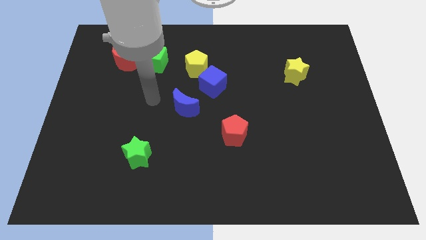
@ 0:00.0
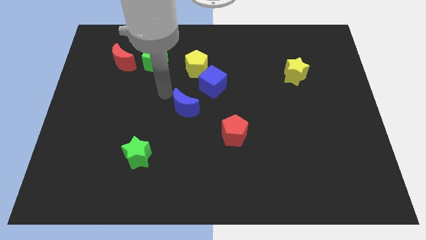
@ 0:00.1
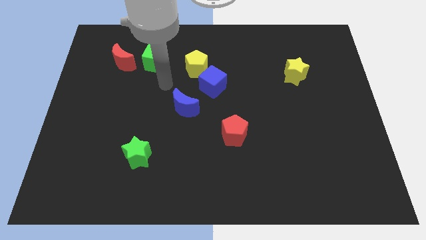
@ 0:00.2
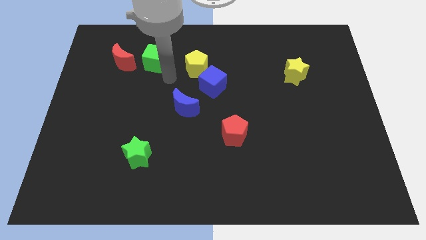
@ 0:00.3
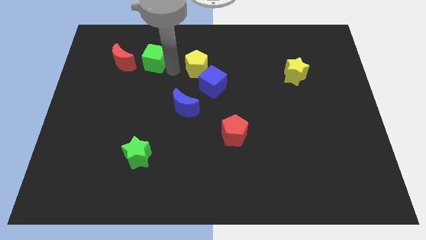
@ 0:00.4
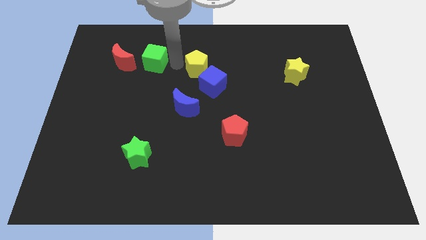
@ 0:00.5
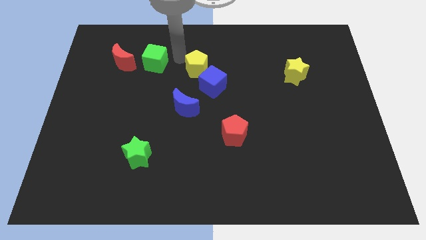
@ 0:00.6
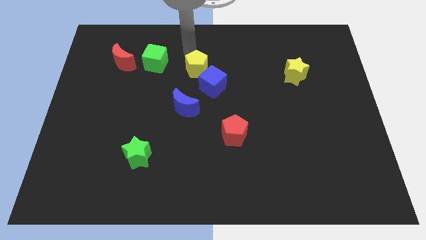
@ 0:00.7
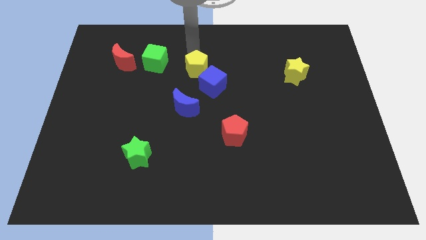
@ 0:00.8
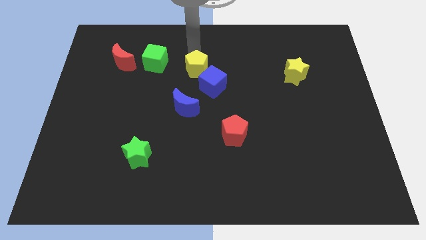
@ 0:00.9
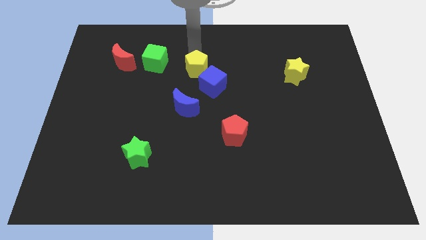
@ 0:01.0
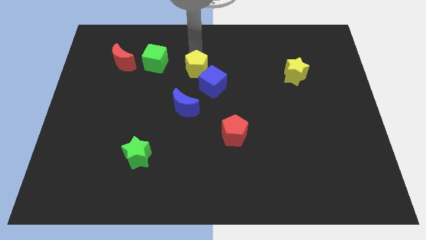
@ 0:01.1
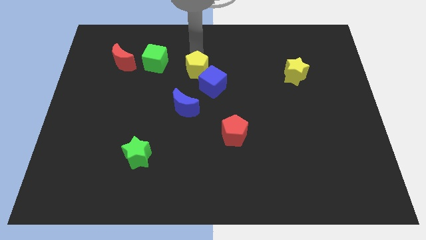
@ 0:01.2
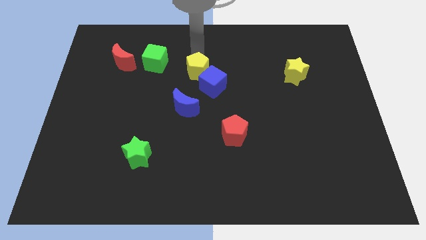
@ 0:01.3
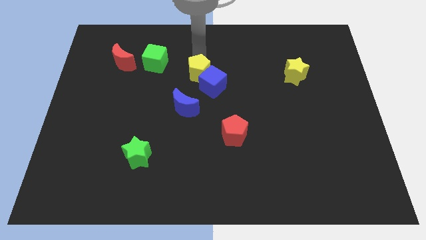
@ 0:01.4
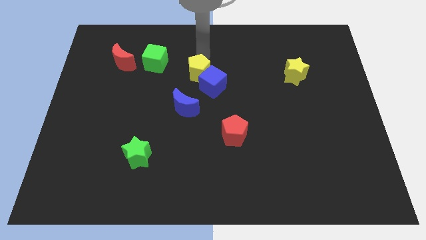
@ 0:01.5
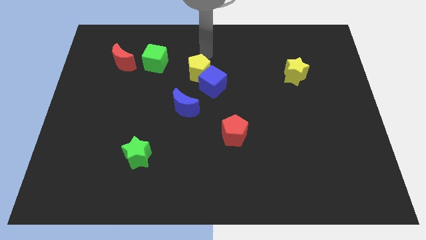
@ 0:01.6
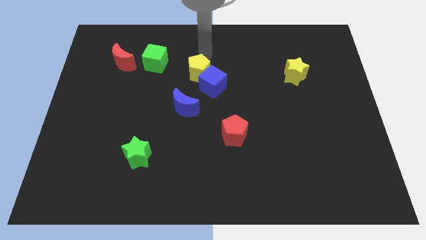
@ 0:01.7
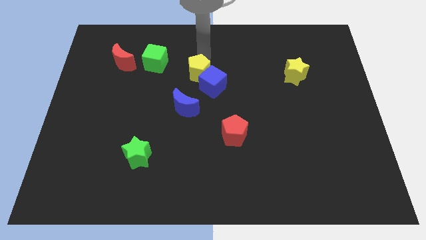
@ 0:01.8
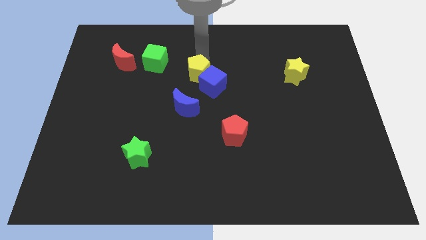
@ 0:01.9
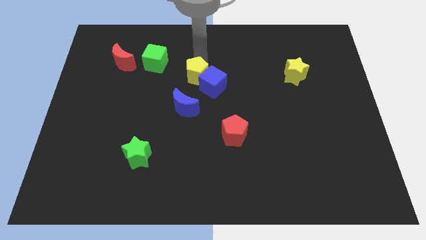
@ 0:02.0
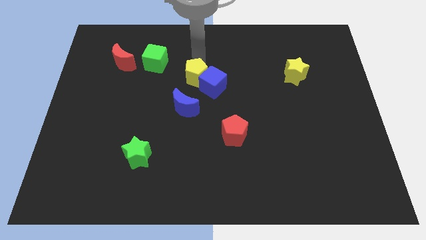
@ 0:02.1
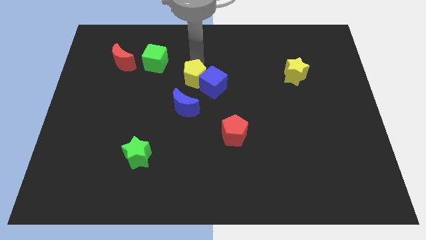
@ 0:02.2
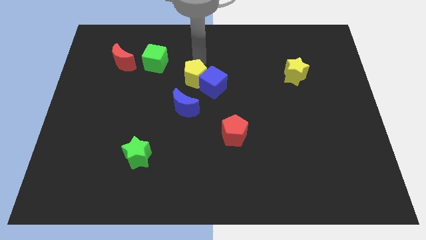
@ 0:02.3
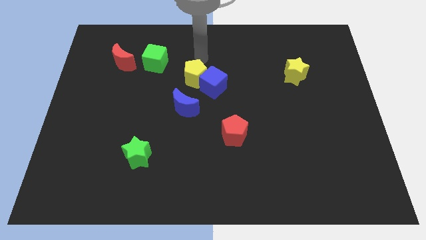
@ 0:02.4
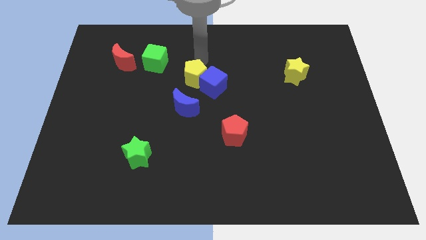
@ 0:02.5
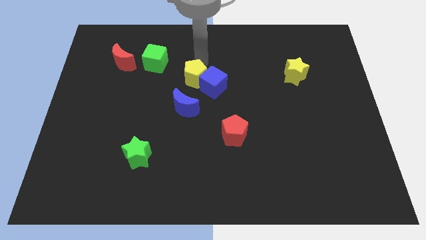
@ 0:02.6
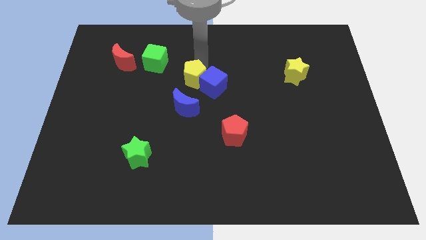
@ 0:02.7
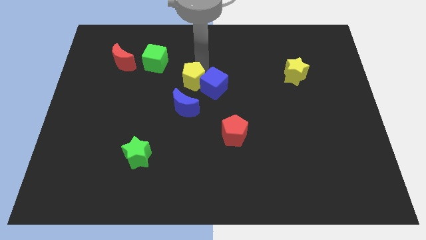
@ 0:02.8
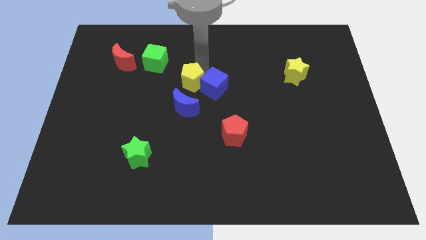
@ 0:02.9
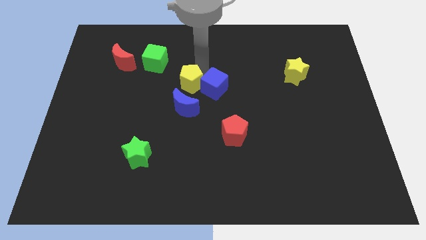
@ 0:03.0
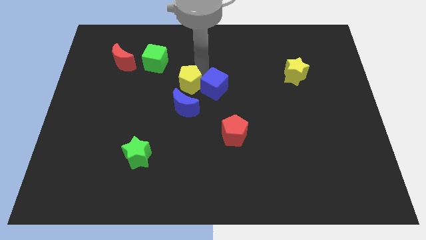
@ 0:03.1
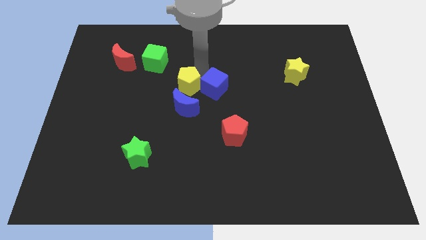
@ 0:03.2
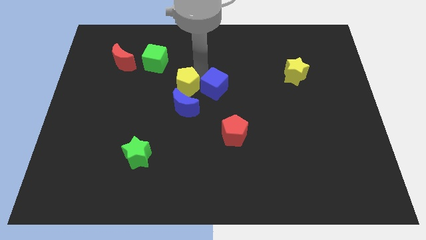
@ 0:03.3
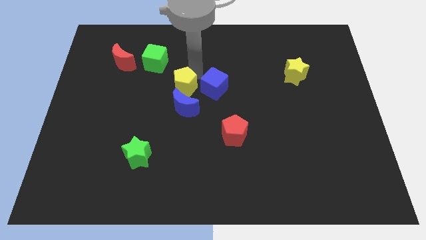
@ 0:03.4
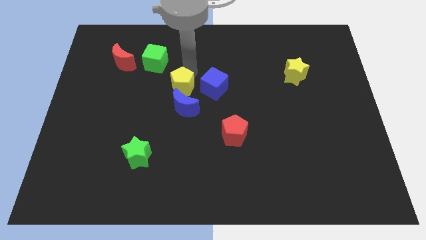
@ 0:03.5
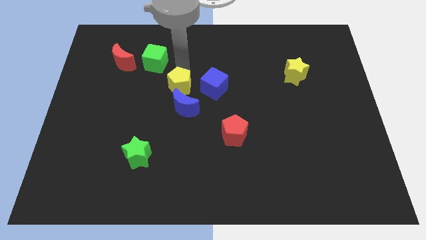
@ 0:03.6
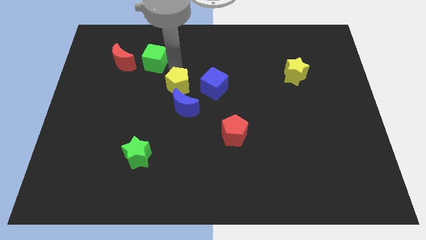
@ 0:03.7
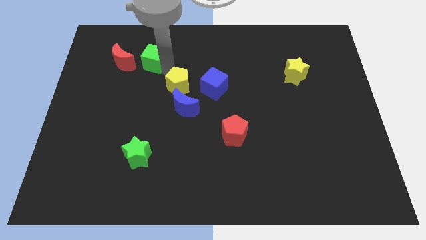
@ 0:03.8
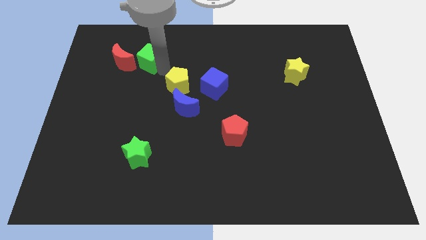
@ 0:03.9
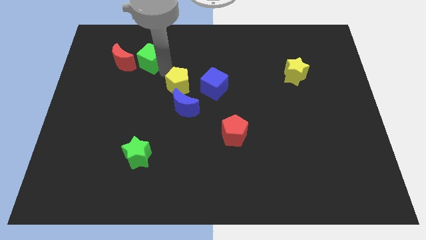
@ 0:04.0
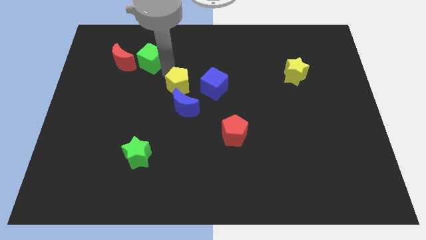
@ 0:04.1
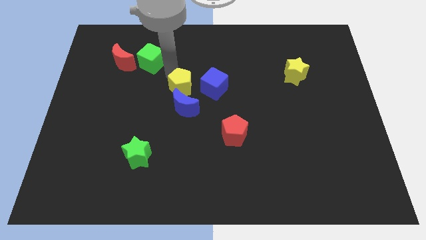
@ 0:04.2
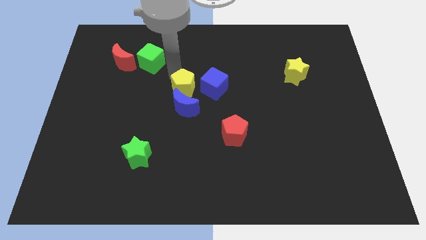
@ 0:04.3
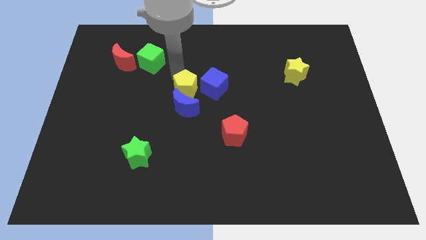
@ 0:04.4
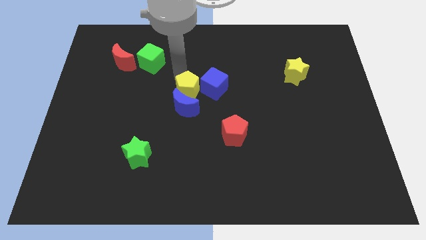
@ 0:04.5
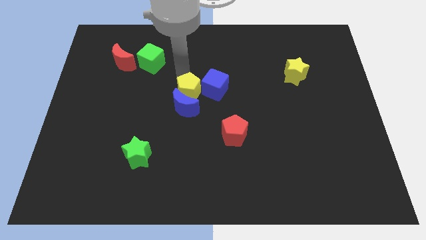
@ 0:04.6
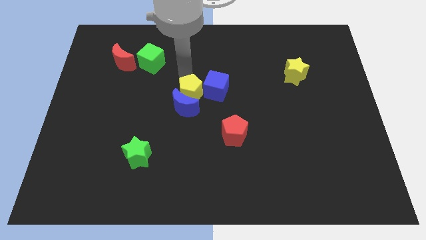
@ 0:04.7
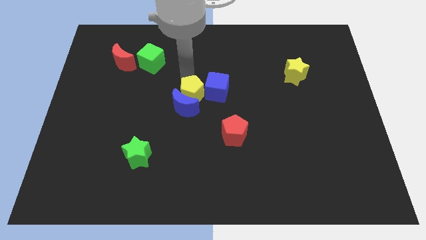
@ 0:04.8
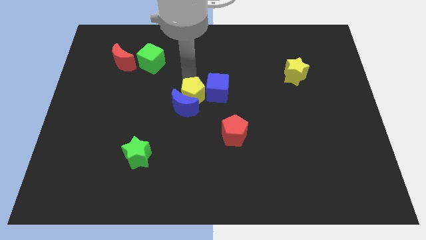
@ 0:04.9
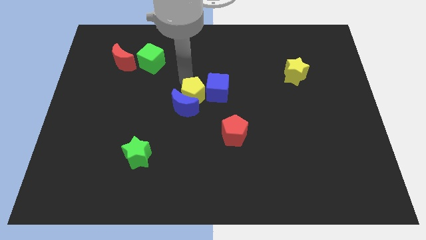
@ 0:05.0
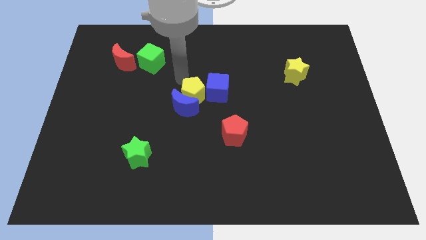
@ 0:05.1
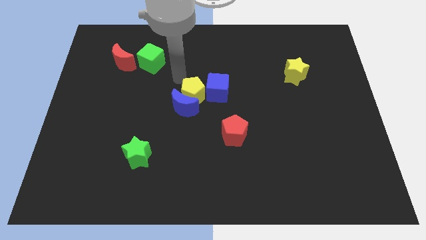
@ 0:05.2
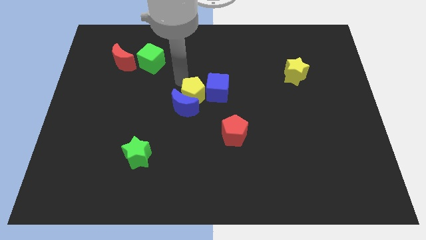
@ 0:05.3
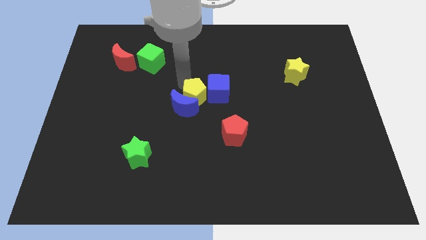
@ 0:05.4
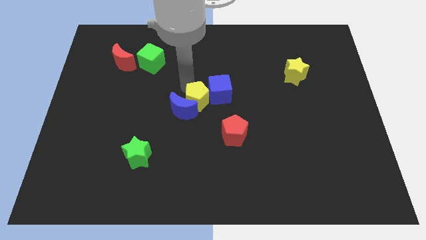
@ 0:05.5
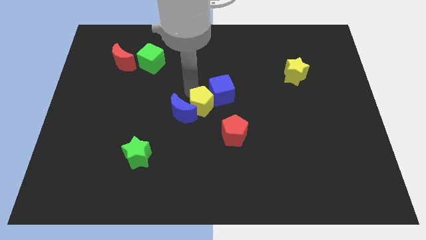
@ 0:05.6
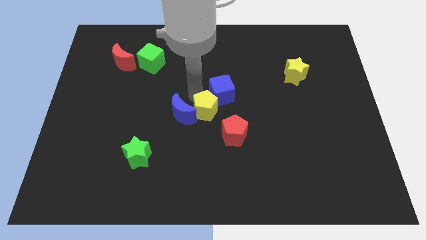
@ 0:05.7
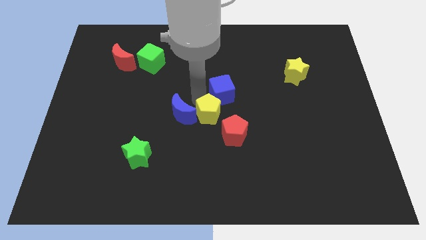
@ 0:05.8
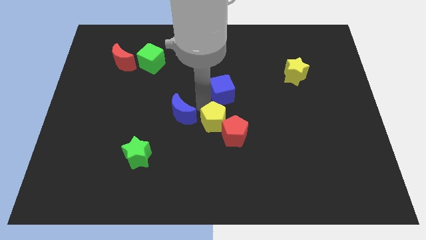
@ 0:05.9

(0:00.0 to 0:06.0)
put the yellow pentagon towards the red pentagon

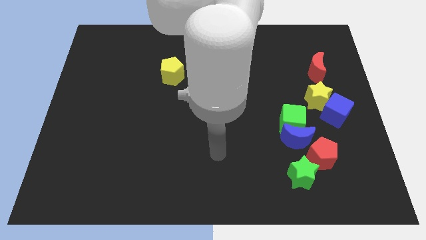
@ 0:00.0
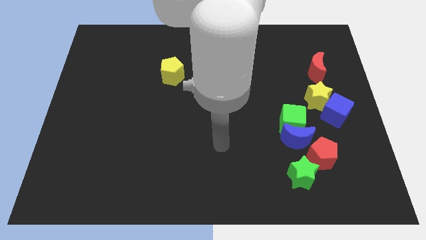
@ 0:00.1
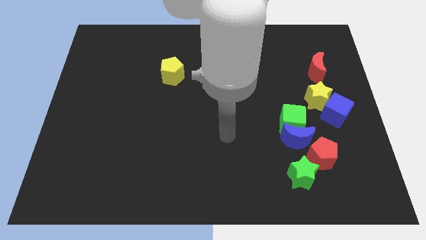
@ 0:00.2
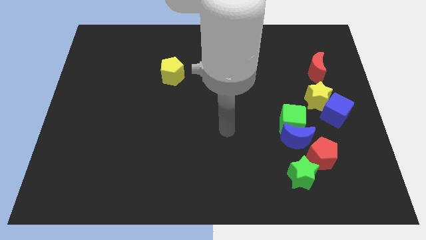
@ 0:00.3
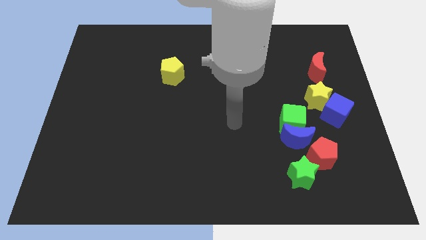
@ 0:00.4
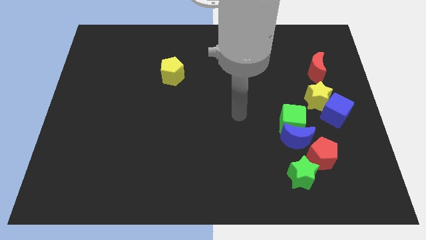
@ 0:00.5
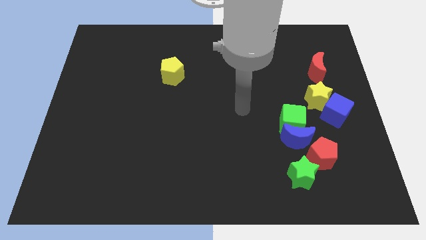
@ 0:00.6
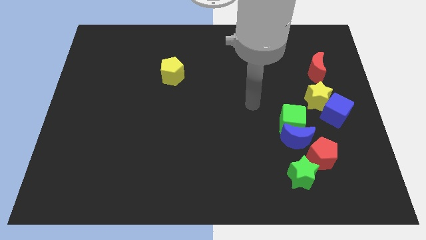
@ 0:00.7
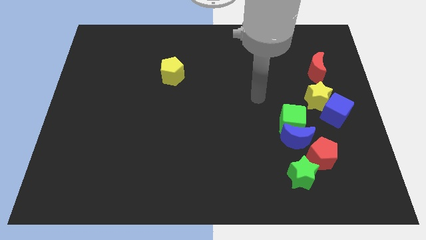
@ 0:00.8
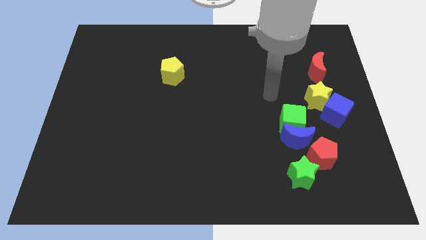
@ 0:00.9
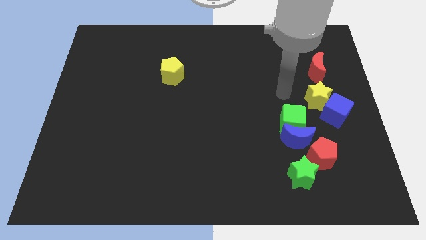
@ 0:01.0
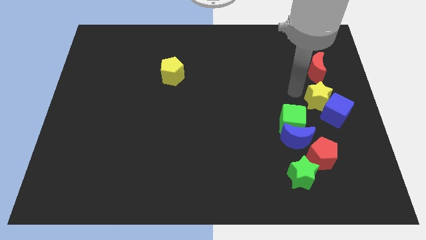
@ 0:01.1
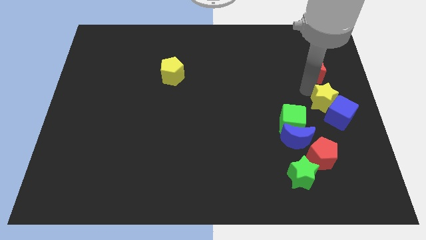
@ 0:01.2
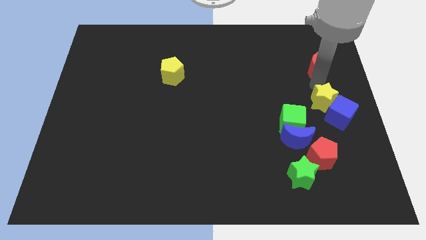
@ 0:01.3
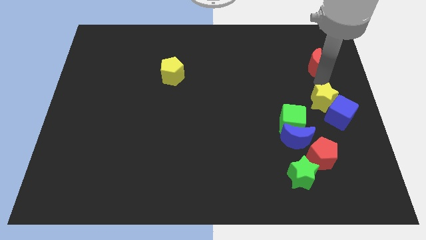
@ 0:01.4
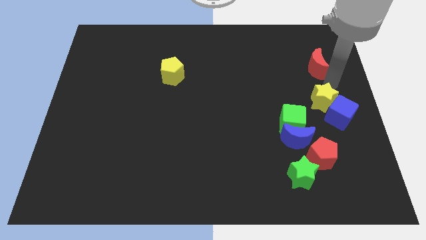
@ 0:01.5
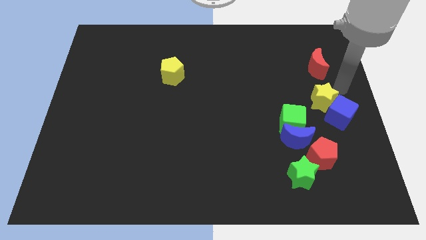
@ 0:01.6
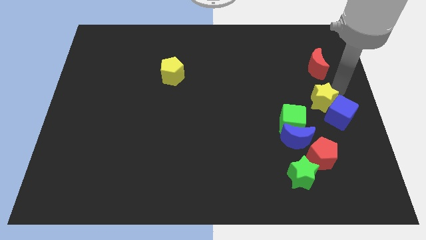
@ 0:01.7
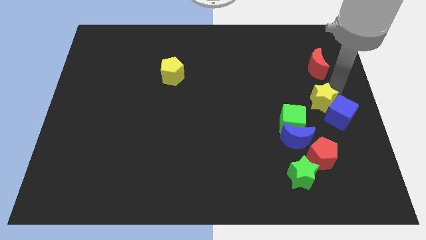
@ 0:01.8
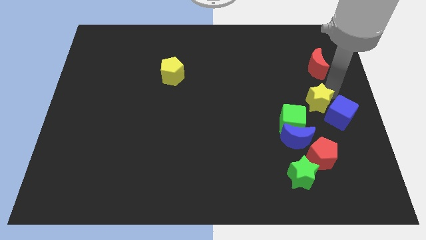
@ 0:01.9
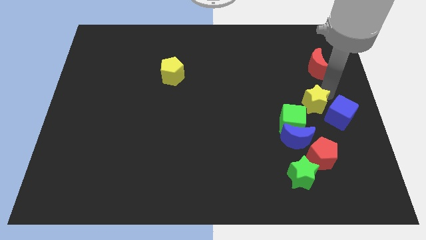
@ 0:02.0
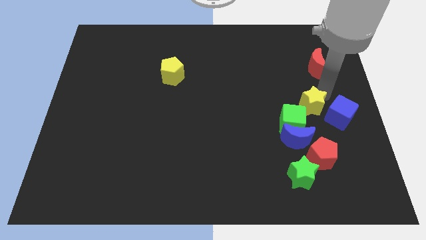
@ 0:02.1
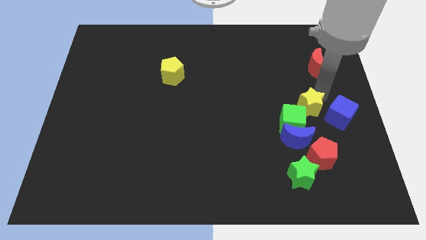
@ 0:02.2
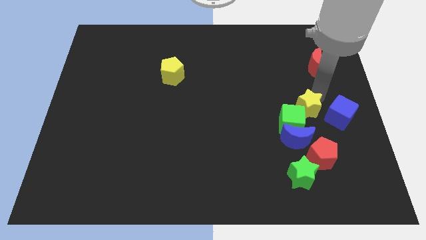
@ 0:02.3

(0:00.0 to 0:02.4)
put the yellow star close to the green cube
